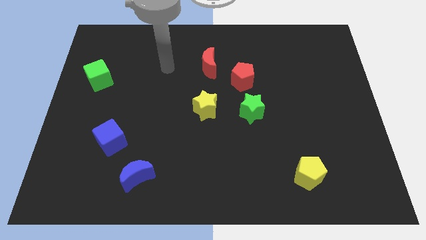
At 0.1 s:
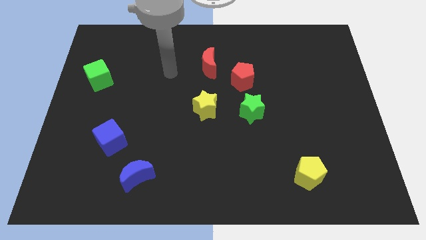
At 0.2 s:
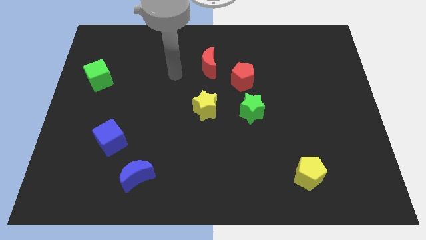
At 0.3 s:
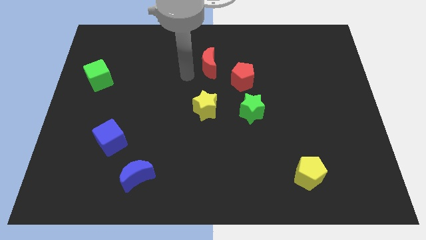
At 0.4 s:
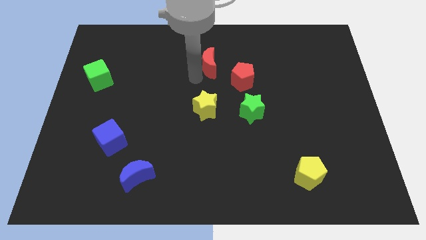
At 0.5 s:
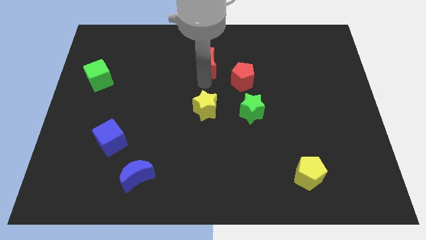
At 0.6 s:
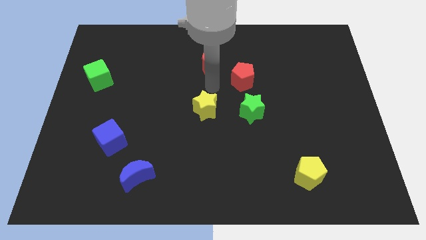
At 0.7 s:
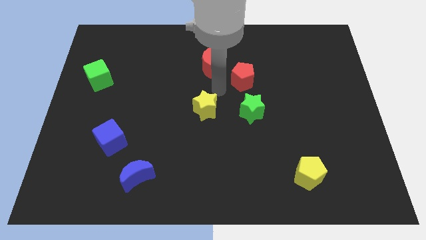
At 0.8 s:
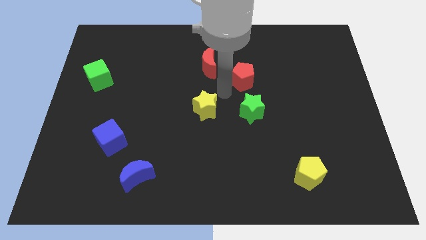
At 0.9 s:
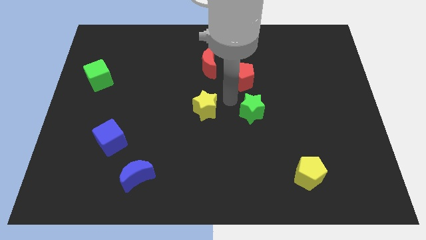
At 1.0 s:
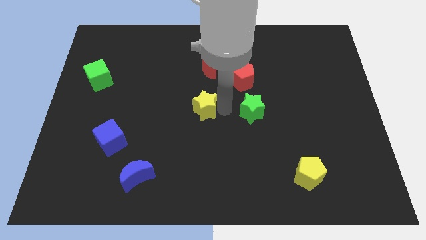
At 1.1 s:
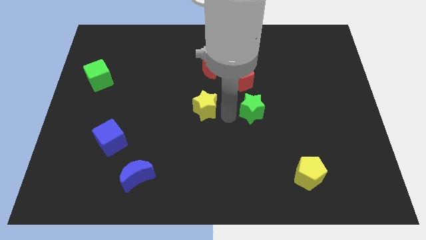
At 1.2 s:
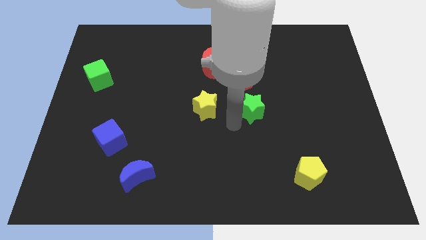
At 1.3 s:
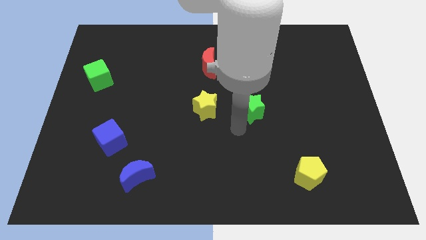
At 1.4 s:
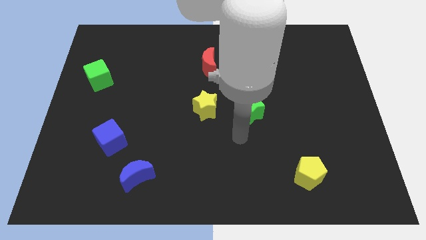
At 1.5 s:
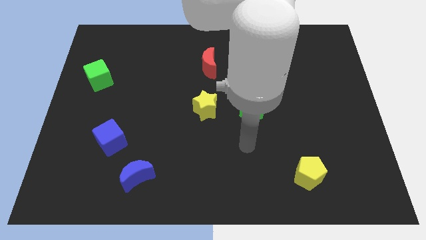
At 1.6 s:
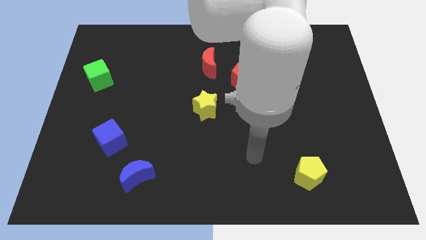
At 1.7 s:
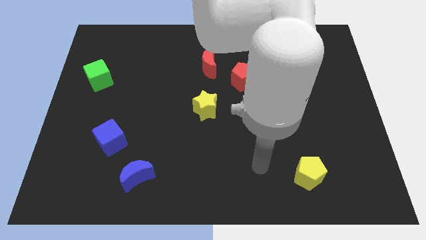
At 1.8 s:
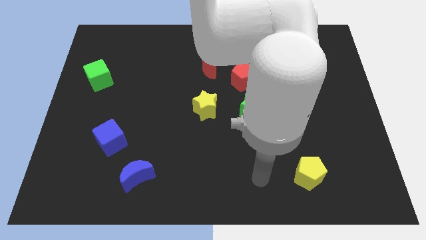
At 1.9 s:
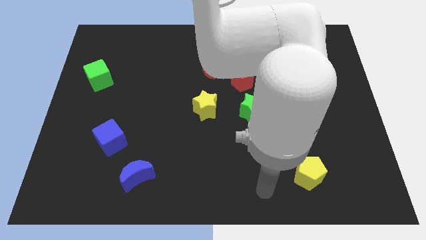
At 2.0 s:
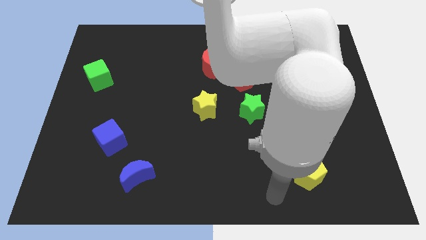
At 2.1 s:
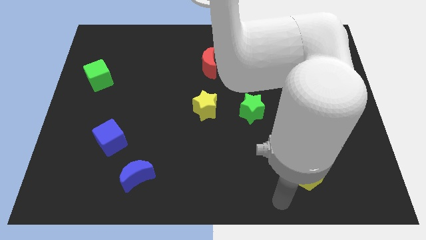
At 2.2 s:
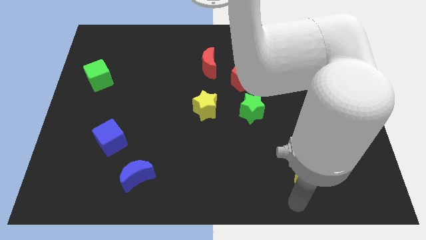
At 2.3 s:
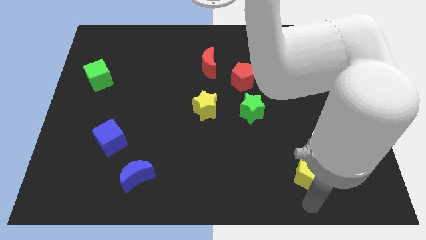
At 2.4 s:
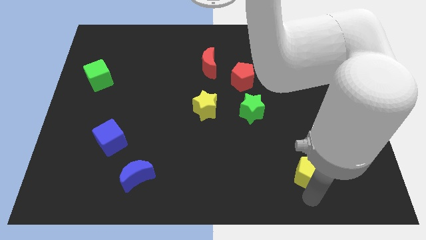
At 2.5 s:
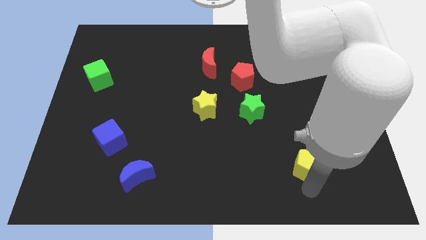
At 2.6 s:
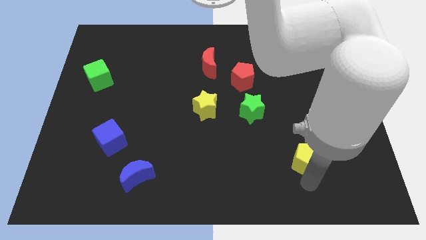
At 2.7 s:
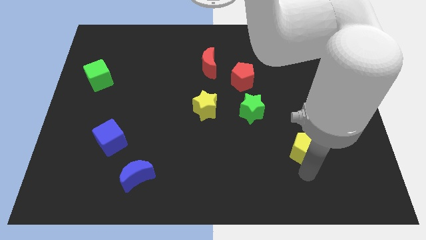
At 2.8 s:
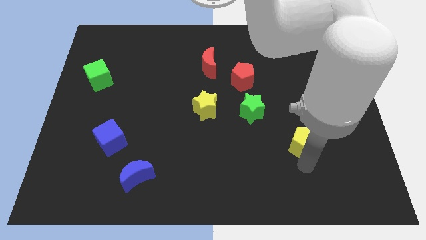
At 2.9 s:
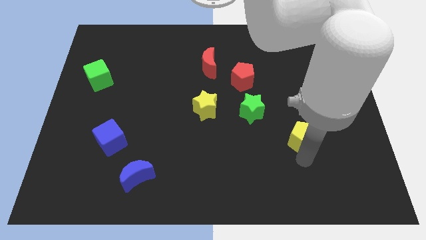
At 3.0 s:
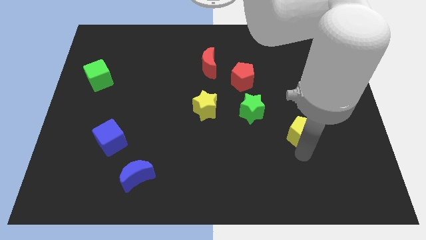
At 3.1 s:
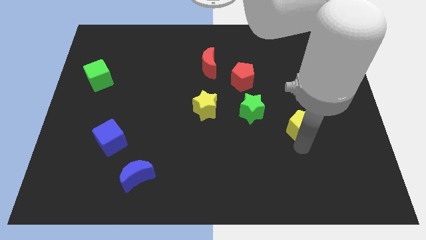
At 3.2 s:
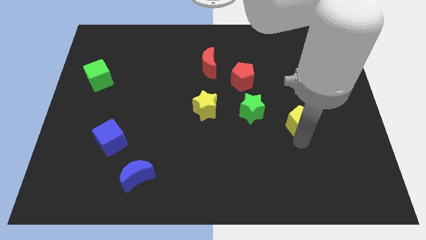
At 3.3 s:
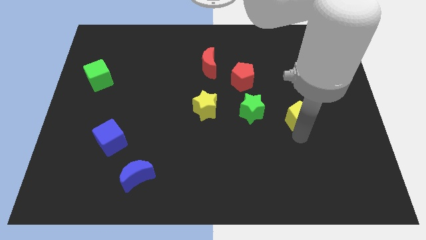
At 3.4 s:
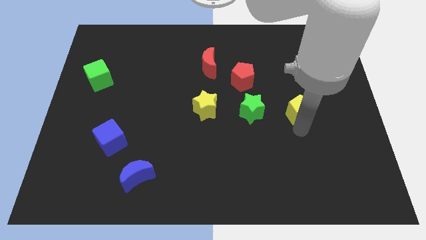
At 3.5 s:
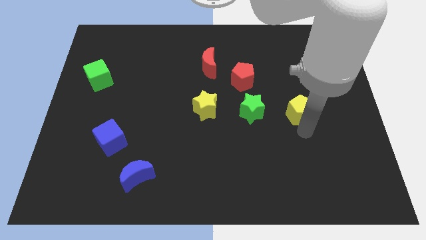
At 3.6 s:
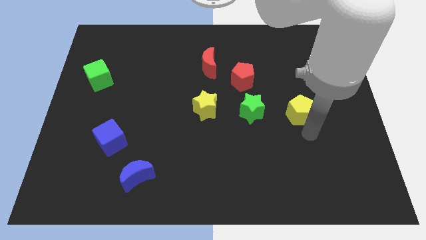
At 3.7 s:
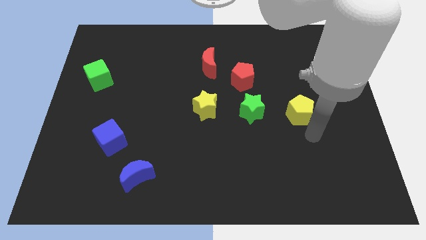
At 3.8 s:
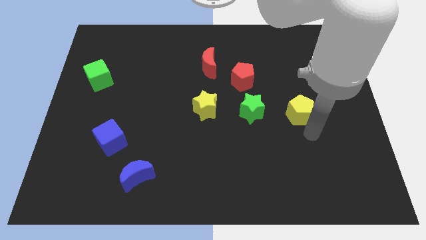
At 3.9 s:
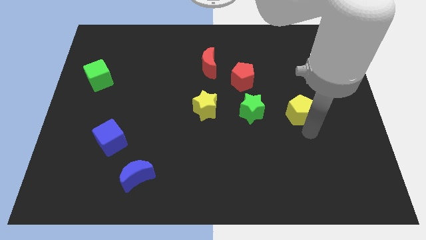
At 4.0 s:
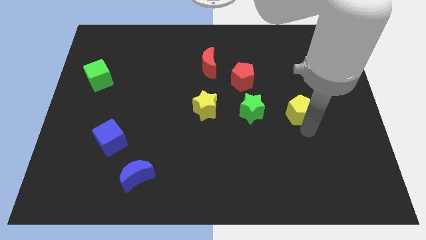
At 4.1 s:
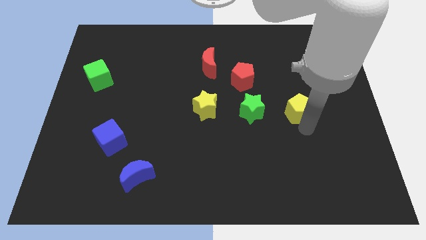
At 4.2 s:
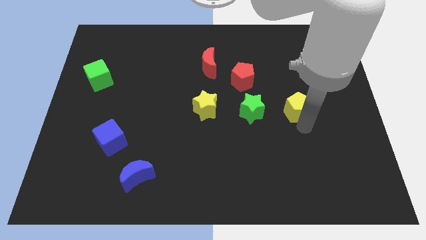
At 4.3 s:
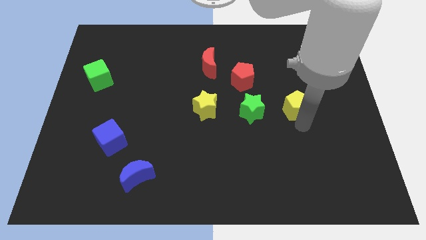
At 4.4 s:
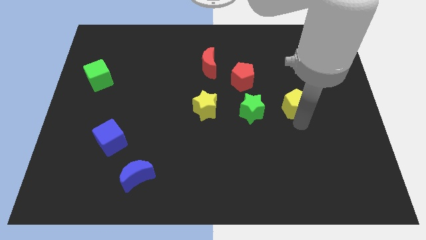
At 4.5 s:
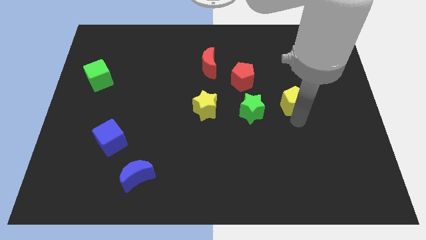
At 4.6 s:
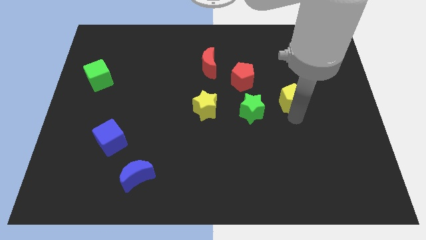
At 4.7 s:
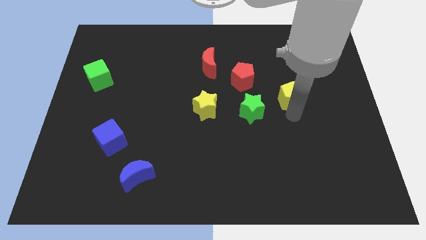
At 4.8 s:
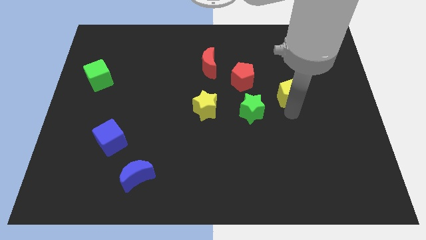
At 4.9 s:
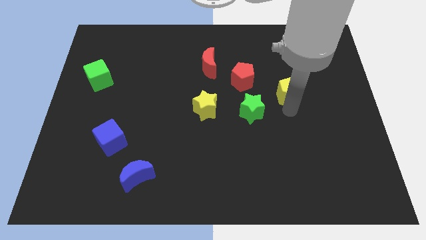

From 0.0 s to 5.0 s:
move the yellow pentagon right of the red pentagon

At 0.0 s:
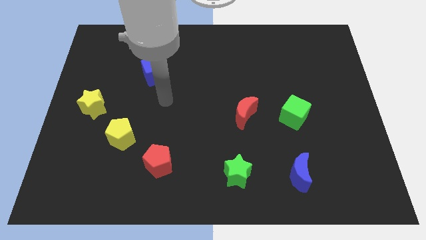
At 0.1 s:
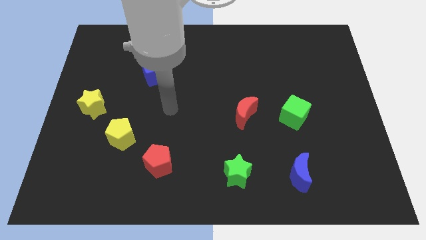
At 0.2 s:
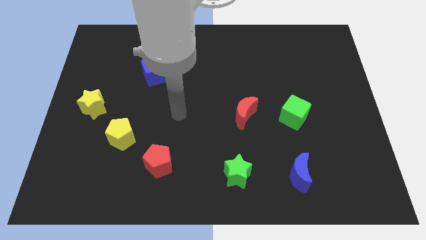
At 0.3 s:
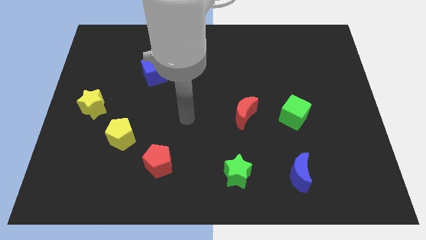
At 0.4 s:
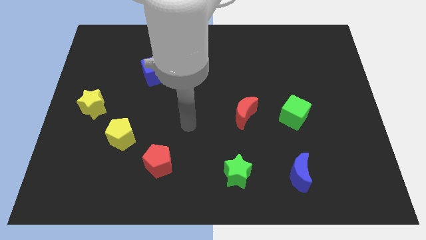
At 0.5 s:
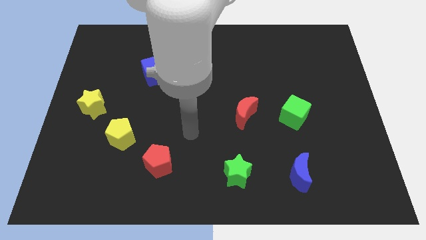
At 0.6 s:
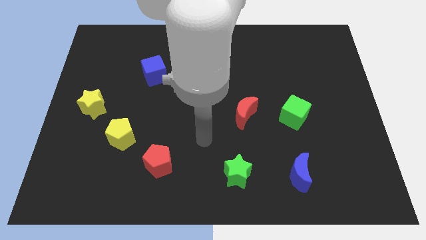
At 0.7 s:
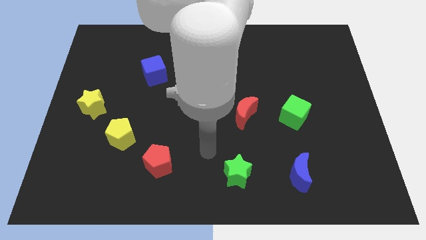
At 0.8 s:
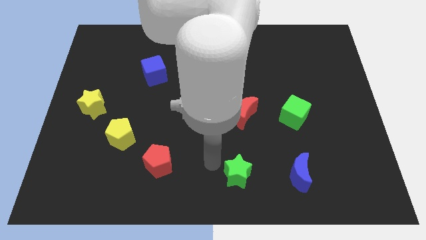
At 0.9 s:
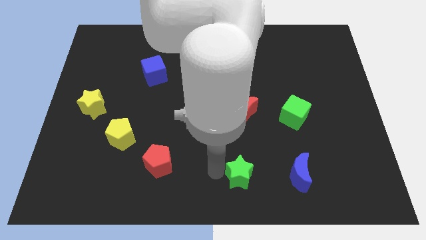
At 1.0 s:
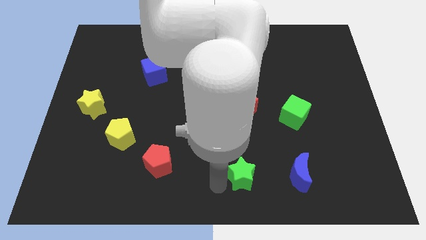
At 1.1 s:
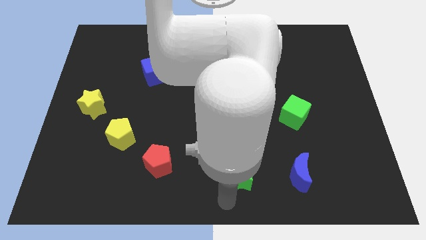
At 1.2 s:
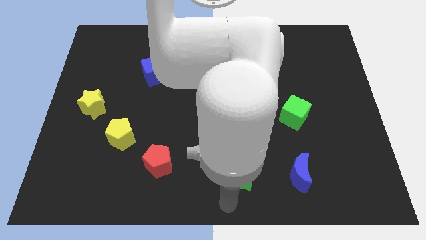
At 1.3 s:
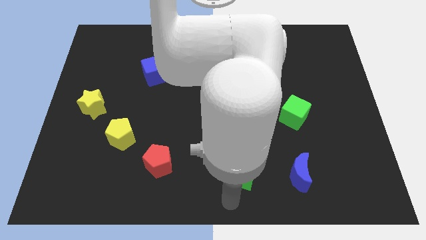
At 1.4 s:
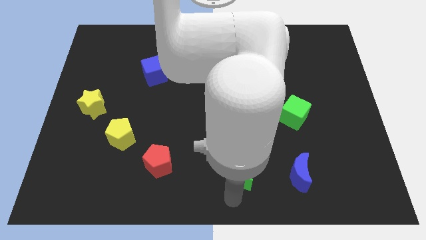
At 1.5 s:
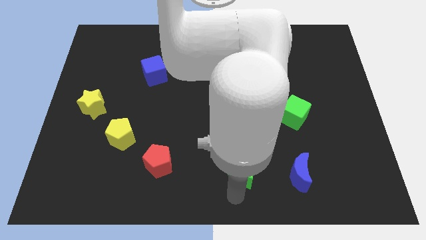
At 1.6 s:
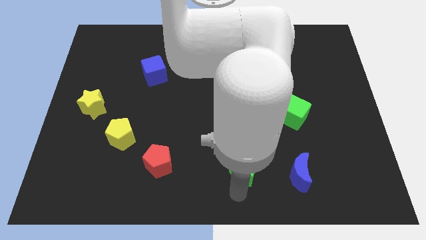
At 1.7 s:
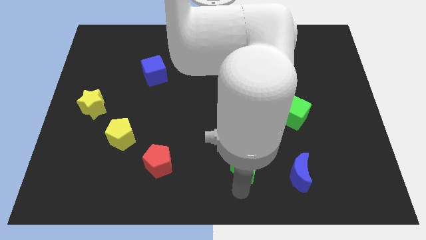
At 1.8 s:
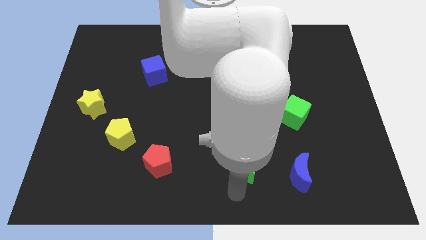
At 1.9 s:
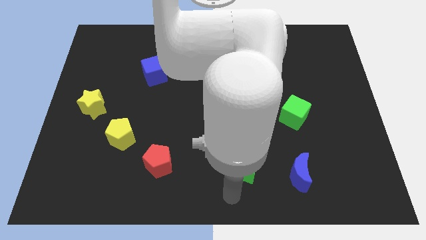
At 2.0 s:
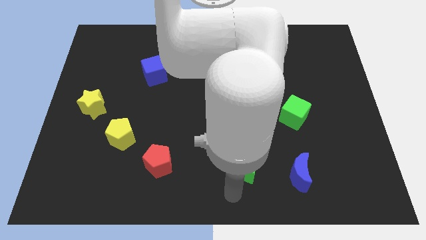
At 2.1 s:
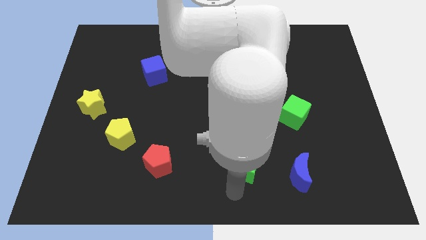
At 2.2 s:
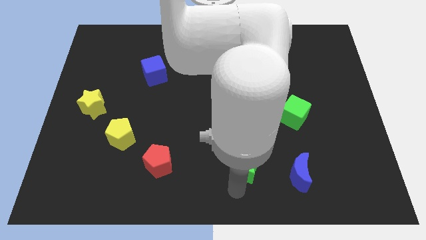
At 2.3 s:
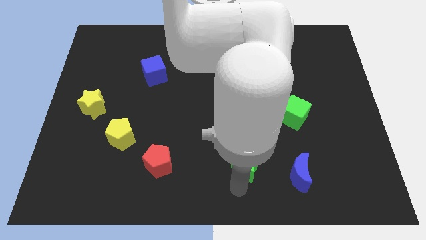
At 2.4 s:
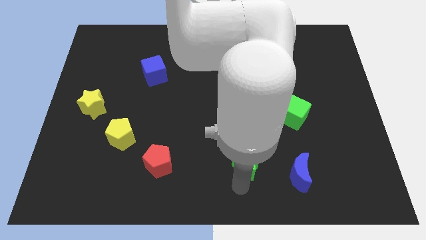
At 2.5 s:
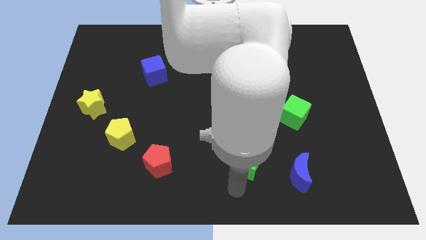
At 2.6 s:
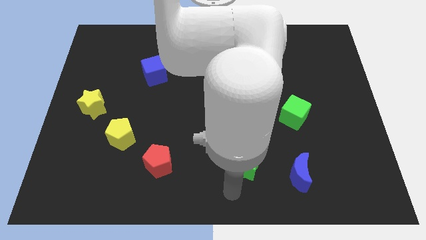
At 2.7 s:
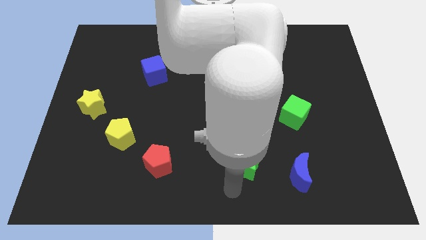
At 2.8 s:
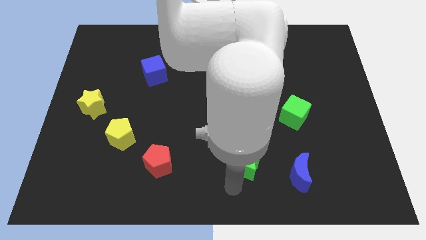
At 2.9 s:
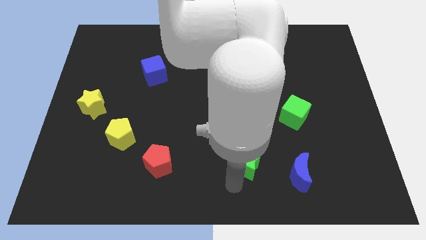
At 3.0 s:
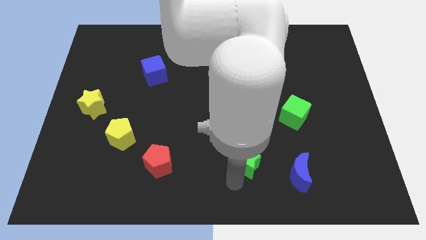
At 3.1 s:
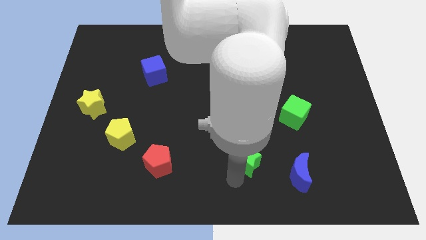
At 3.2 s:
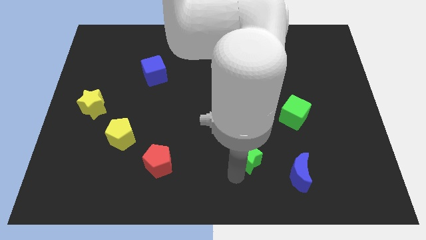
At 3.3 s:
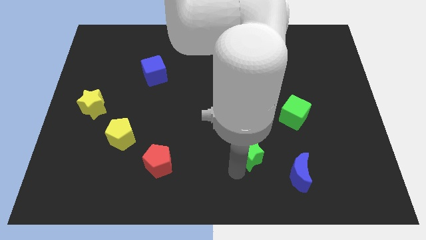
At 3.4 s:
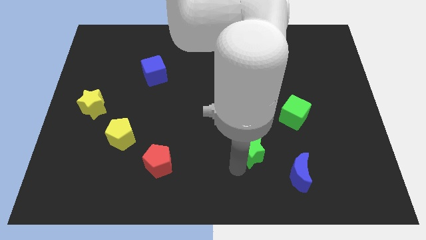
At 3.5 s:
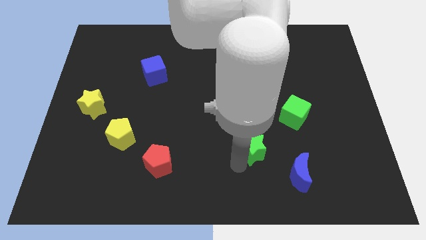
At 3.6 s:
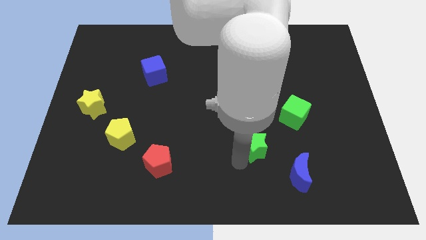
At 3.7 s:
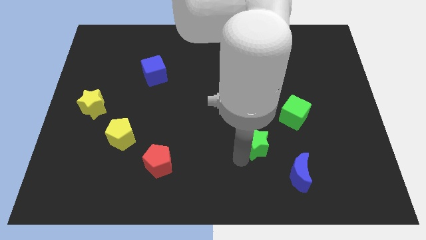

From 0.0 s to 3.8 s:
put the green star to the bottom right side of the red moon
